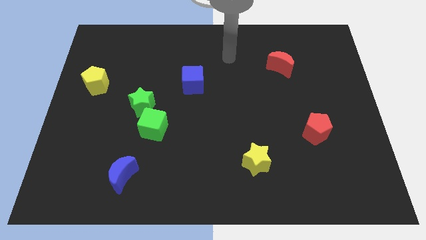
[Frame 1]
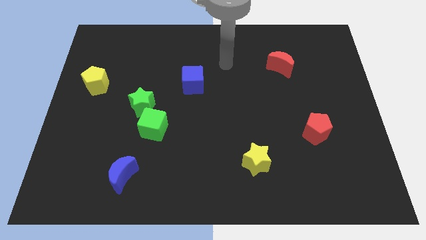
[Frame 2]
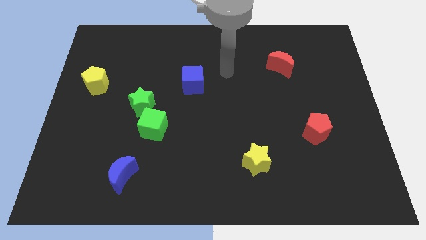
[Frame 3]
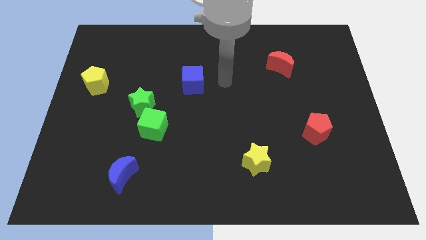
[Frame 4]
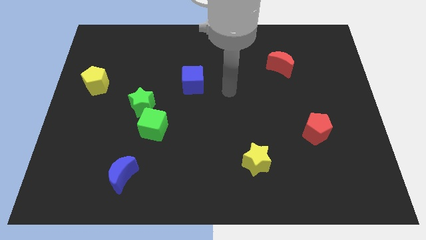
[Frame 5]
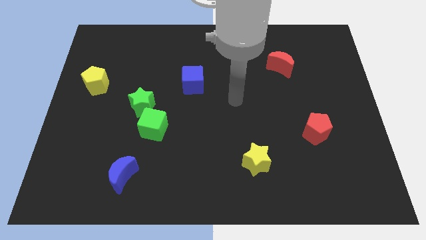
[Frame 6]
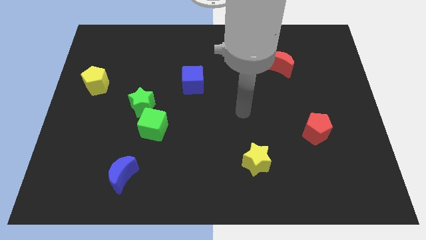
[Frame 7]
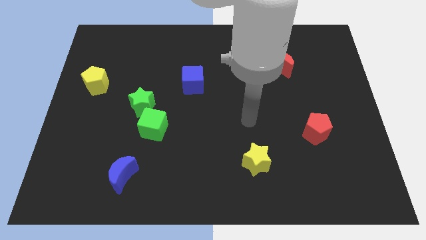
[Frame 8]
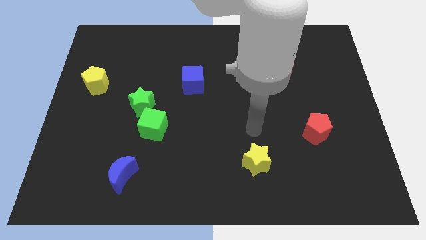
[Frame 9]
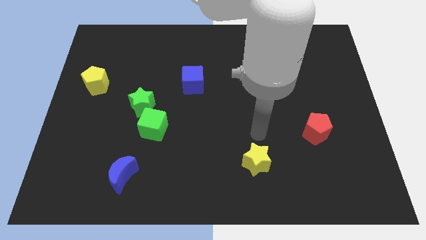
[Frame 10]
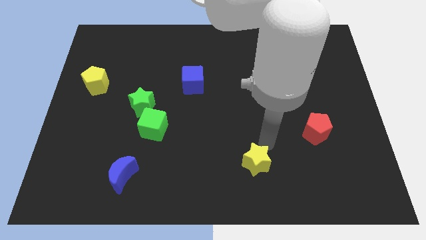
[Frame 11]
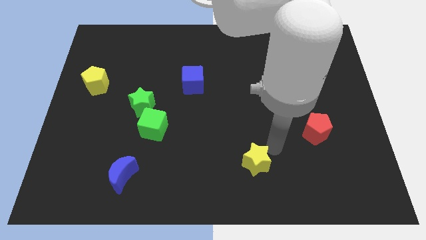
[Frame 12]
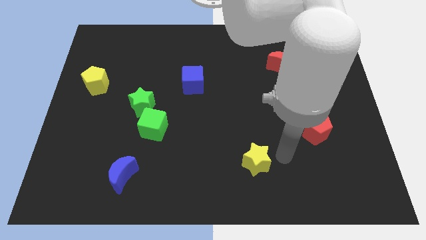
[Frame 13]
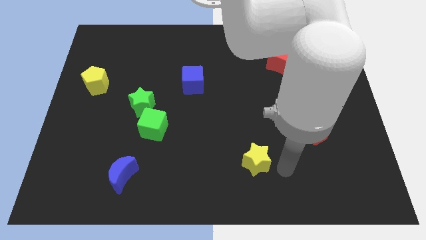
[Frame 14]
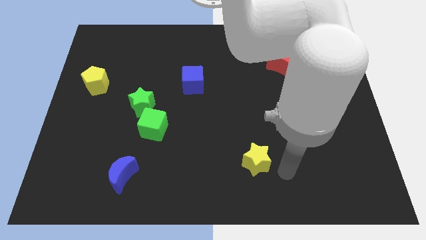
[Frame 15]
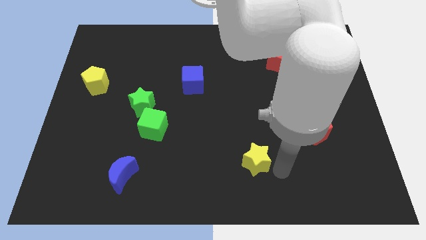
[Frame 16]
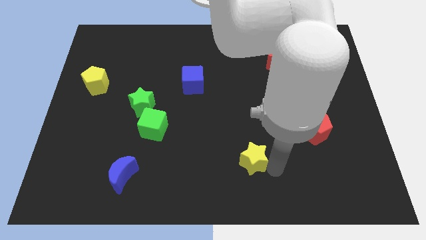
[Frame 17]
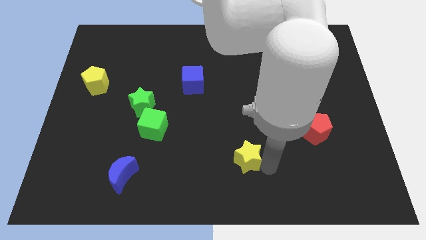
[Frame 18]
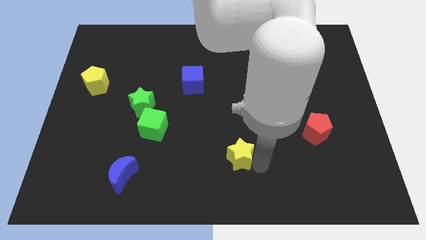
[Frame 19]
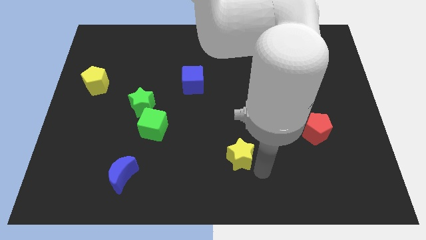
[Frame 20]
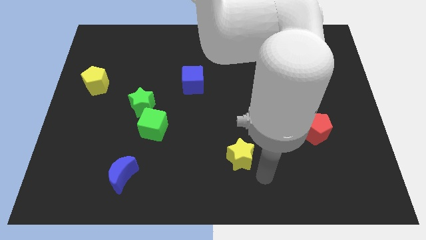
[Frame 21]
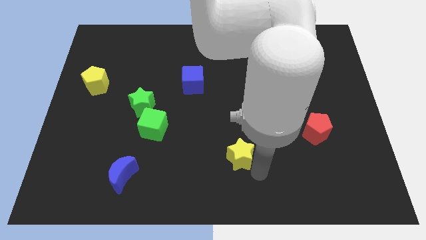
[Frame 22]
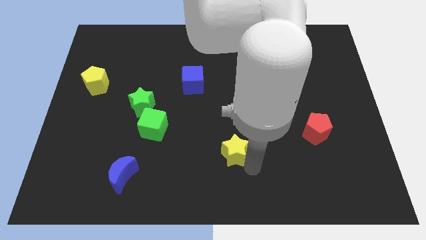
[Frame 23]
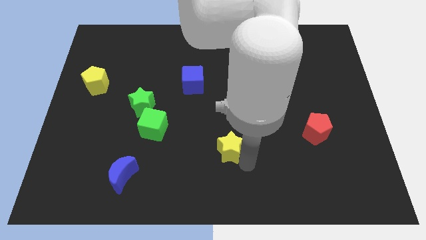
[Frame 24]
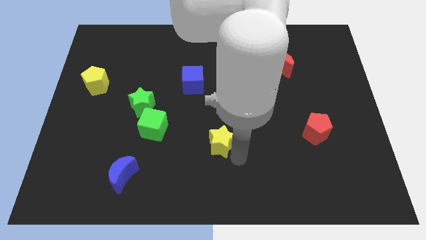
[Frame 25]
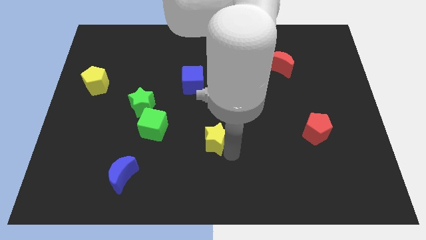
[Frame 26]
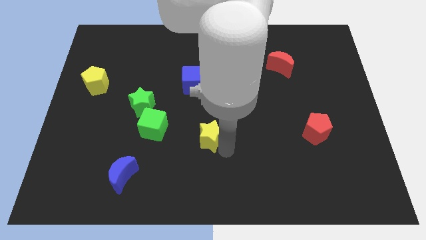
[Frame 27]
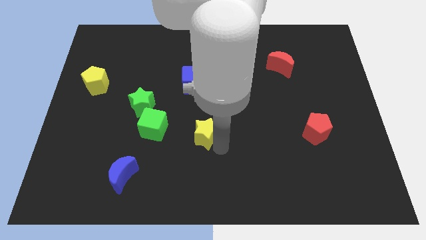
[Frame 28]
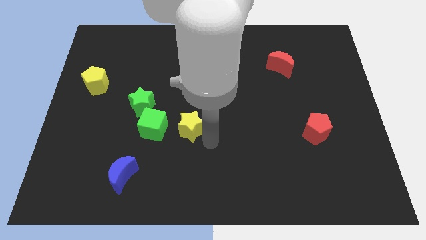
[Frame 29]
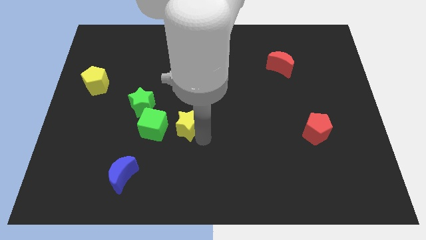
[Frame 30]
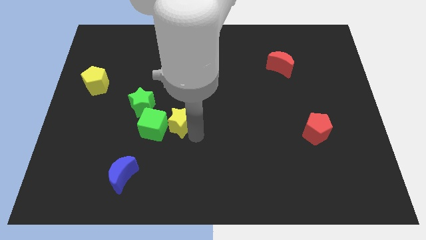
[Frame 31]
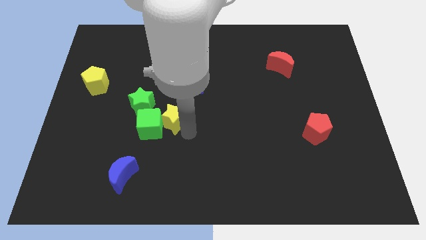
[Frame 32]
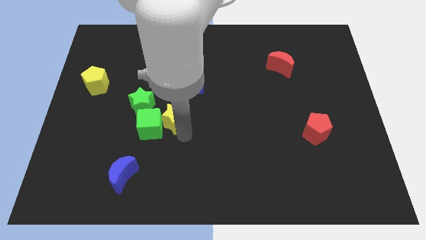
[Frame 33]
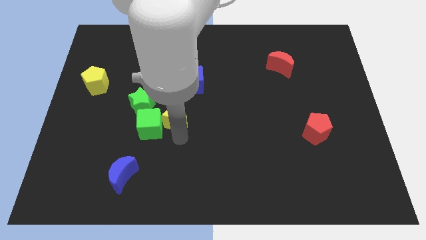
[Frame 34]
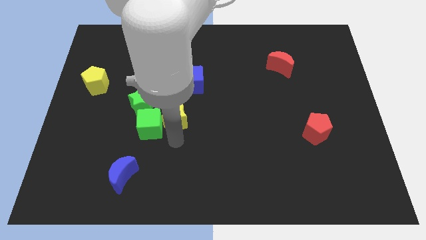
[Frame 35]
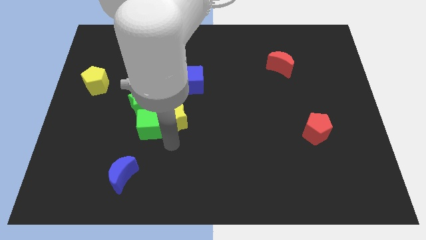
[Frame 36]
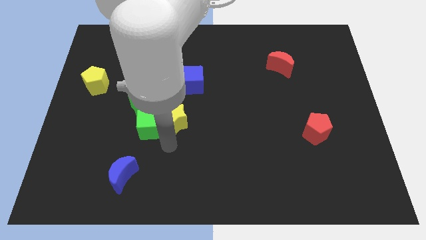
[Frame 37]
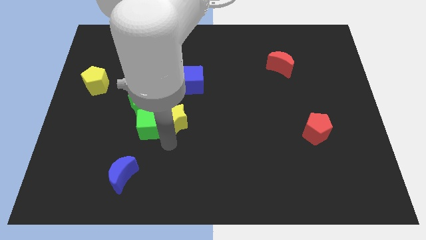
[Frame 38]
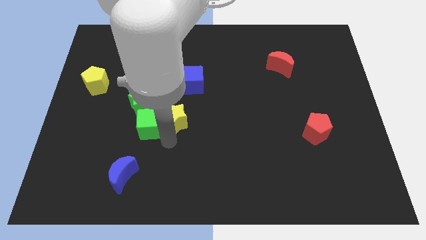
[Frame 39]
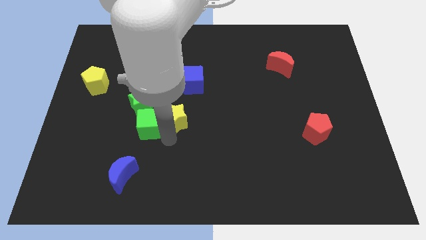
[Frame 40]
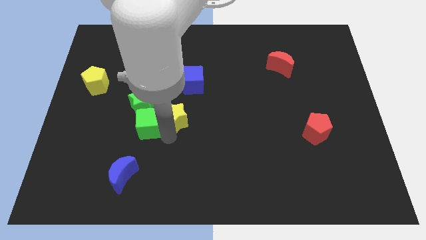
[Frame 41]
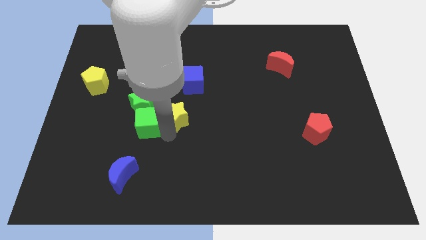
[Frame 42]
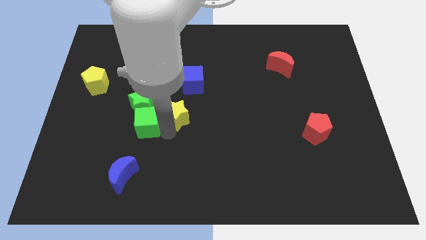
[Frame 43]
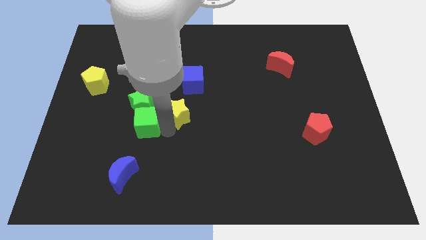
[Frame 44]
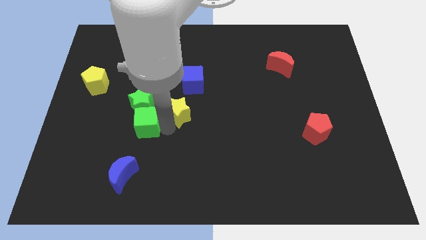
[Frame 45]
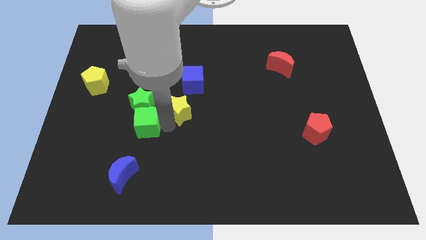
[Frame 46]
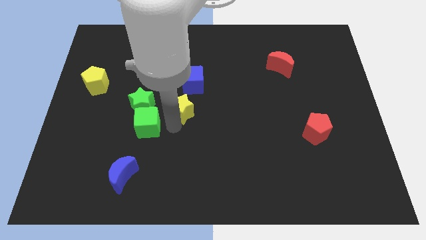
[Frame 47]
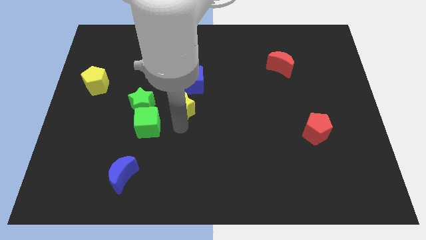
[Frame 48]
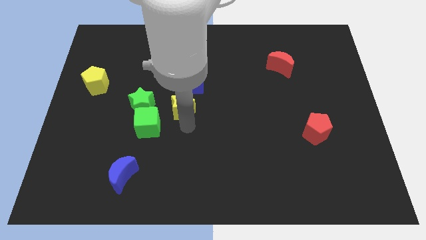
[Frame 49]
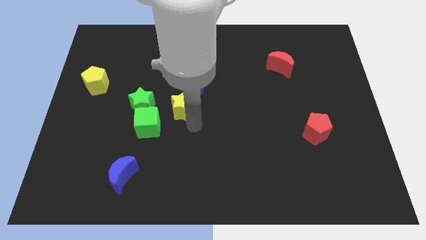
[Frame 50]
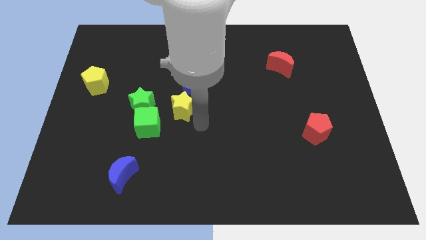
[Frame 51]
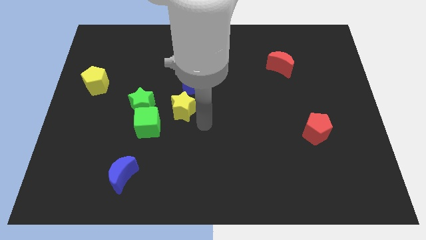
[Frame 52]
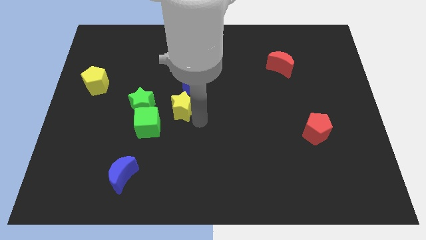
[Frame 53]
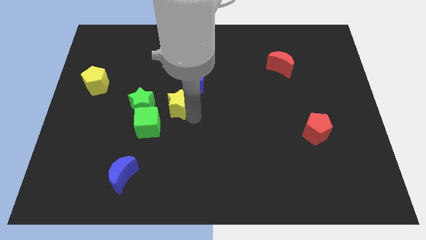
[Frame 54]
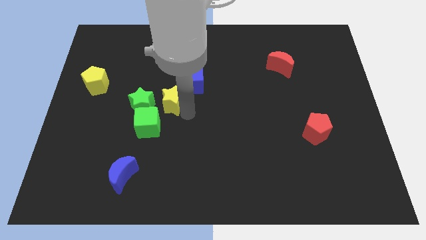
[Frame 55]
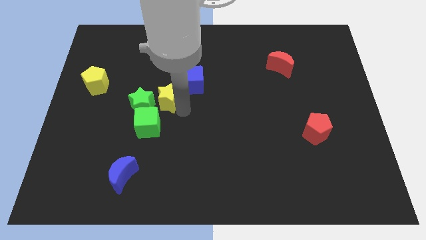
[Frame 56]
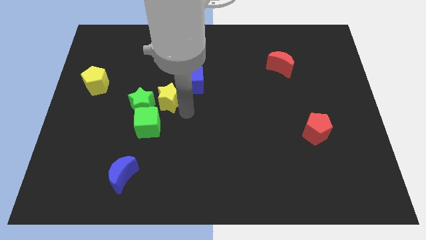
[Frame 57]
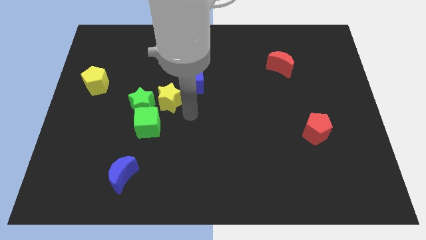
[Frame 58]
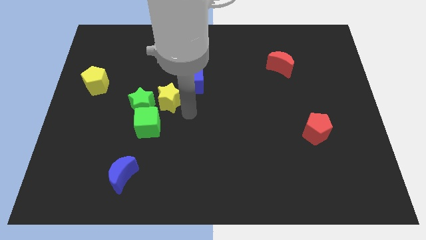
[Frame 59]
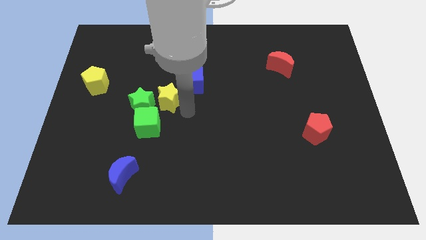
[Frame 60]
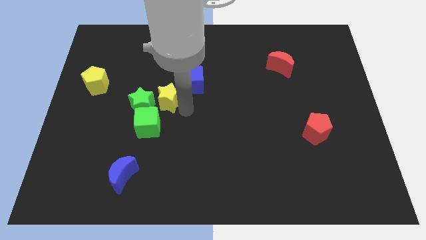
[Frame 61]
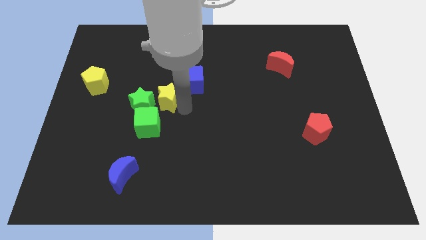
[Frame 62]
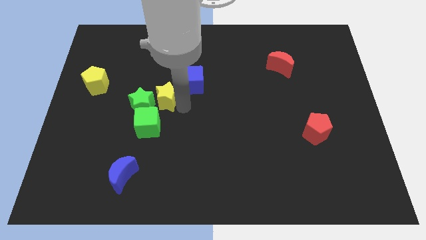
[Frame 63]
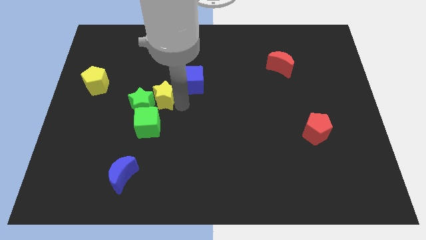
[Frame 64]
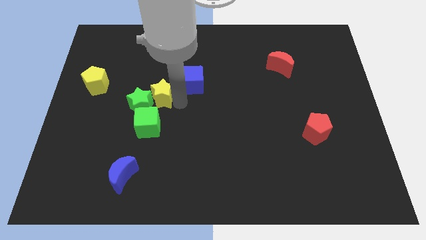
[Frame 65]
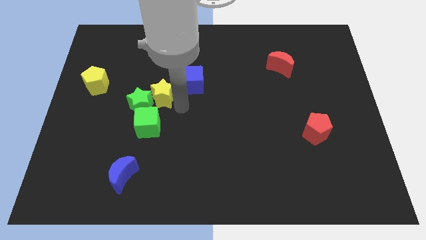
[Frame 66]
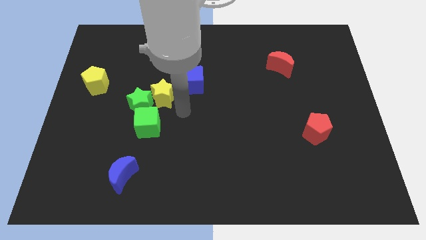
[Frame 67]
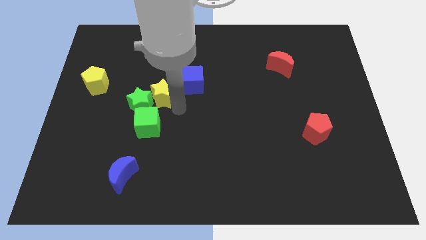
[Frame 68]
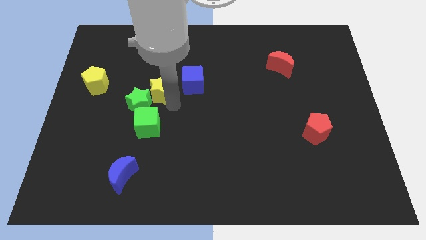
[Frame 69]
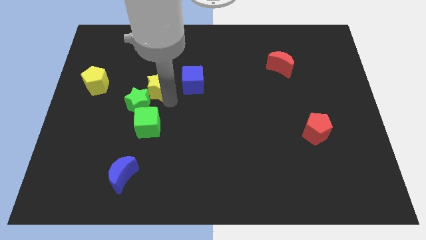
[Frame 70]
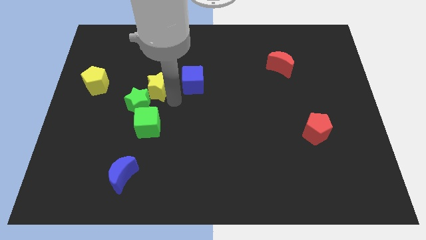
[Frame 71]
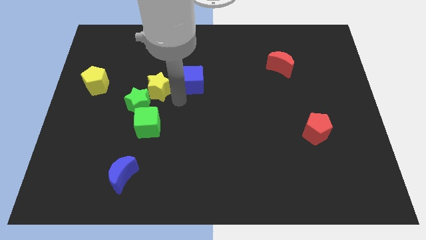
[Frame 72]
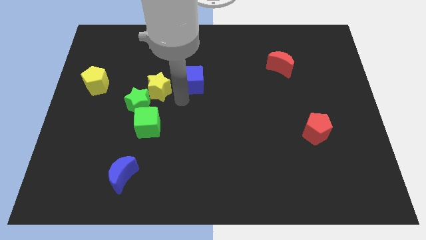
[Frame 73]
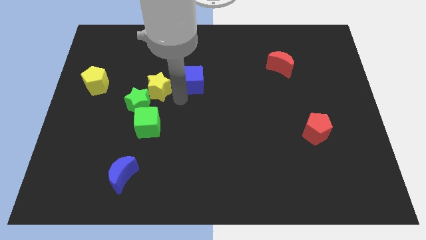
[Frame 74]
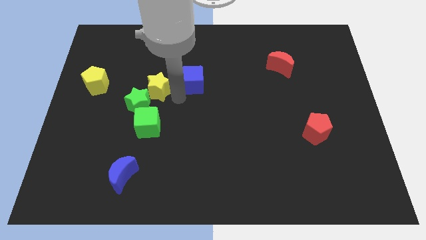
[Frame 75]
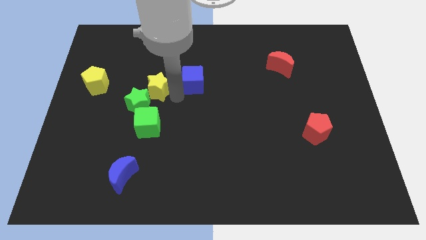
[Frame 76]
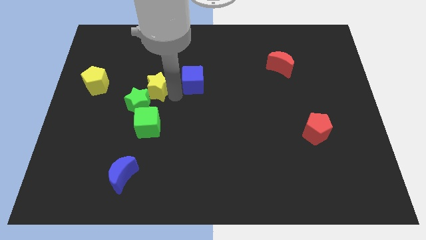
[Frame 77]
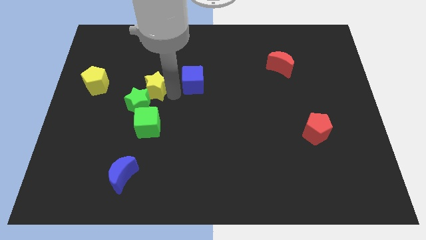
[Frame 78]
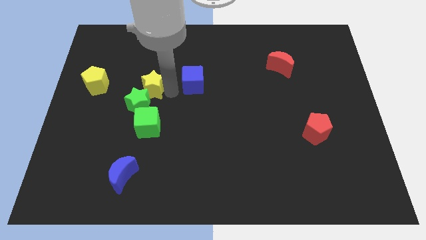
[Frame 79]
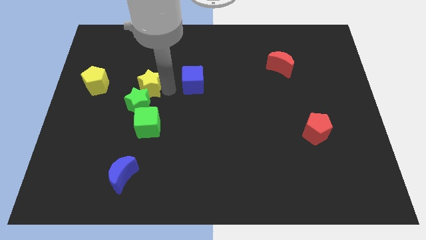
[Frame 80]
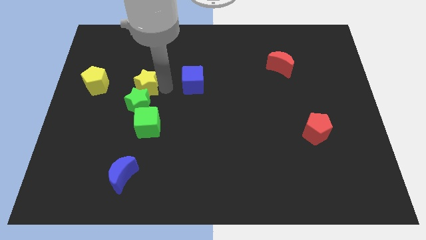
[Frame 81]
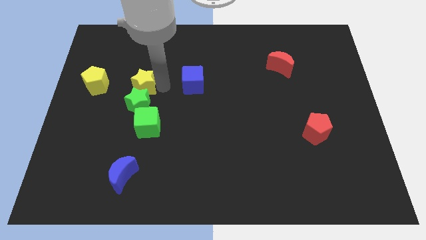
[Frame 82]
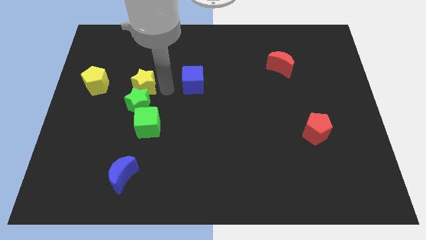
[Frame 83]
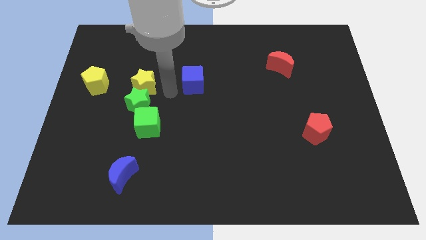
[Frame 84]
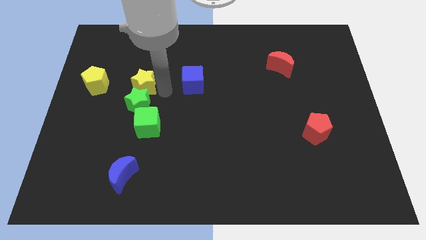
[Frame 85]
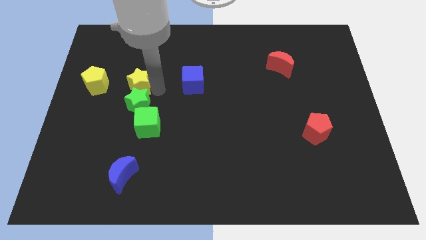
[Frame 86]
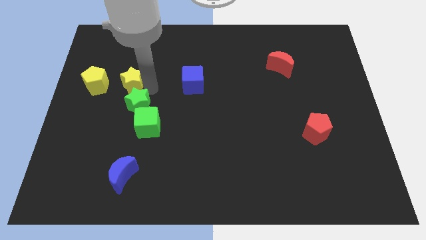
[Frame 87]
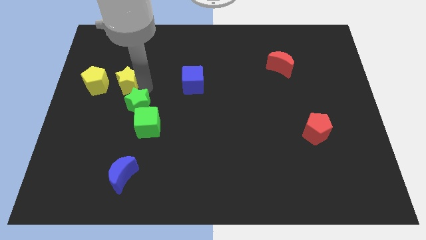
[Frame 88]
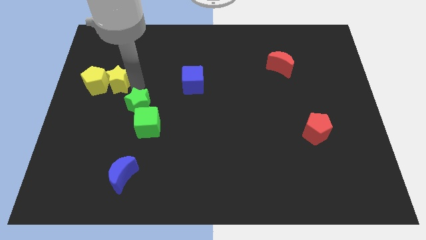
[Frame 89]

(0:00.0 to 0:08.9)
slide the yellow star to the yellow pentagon
